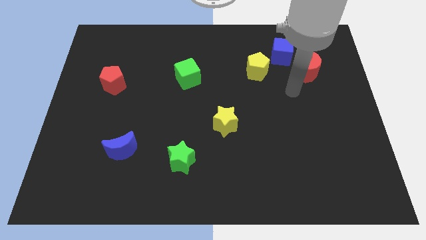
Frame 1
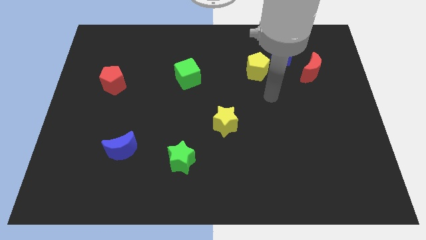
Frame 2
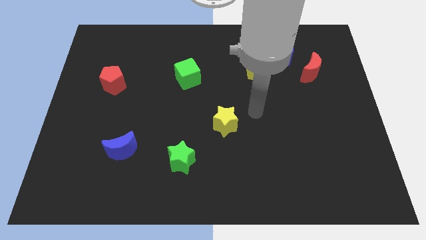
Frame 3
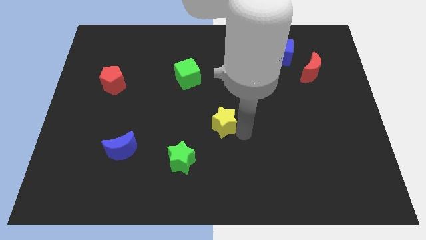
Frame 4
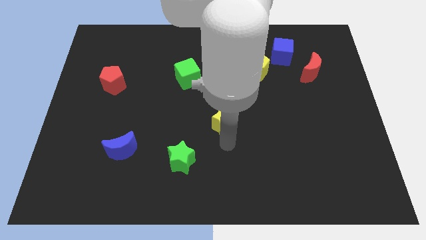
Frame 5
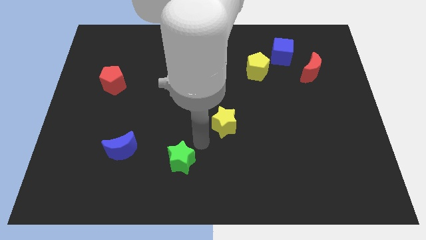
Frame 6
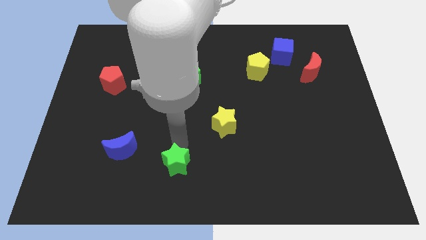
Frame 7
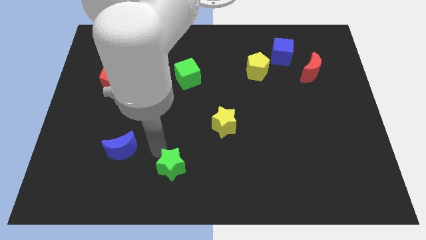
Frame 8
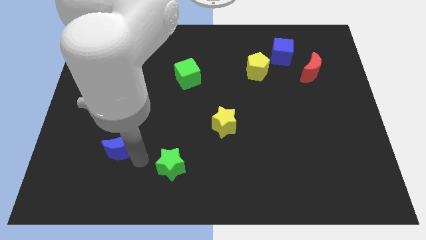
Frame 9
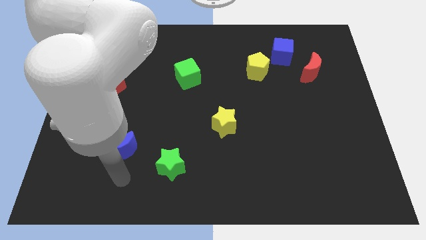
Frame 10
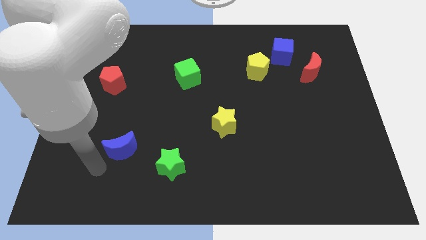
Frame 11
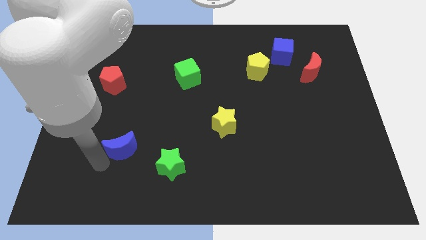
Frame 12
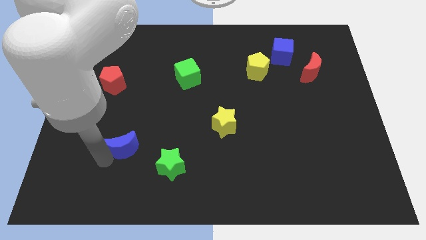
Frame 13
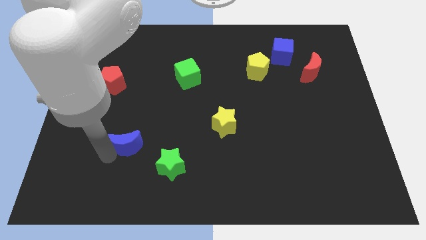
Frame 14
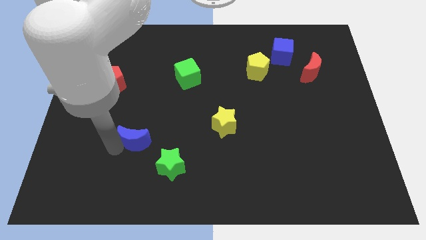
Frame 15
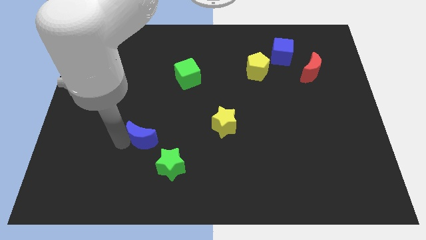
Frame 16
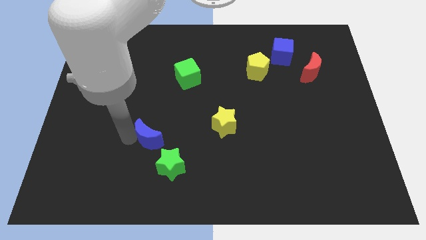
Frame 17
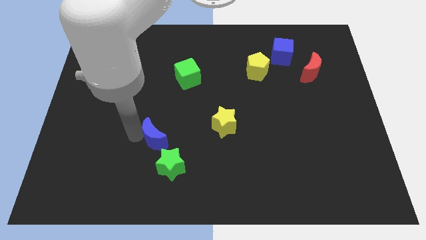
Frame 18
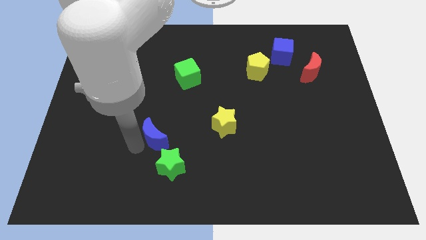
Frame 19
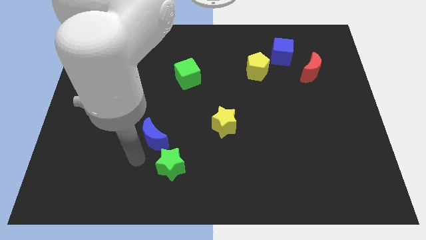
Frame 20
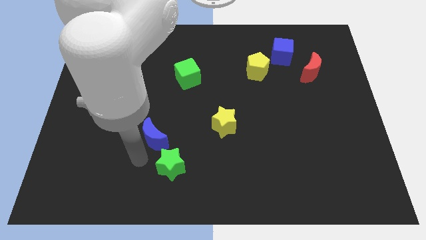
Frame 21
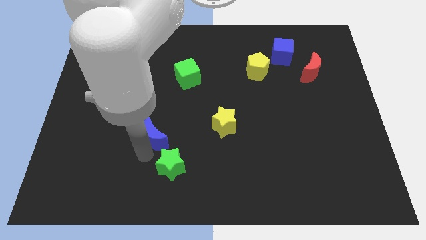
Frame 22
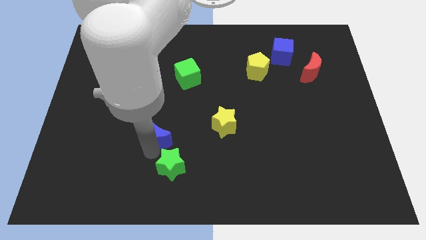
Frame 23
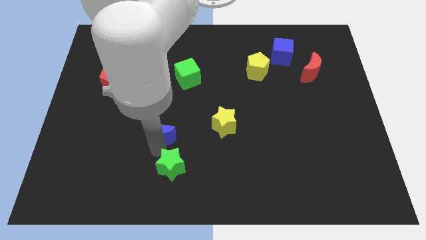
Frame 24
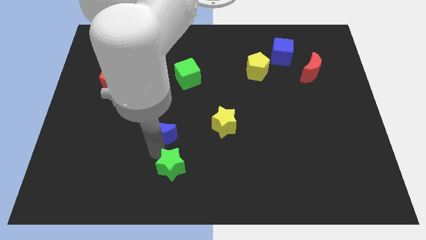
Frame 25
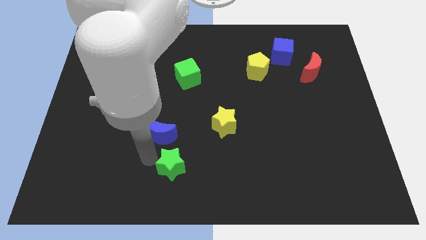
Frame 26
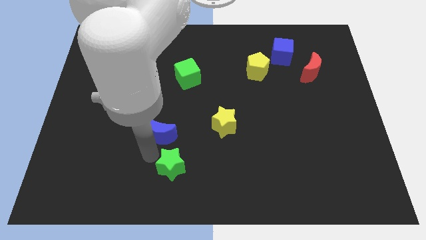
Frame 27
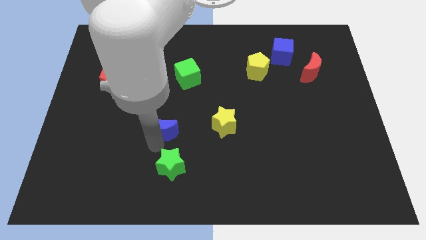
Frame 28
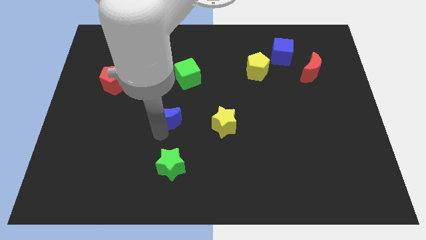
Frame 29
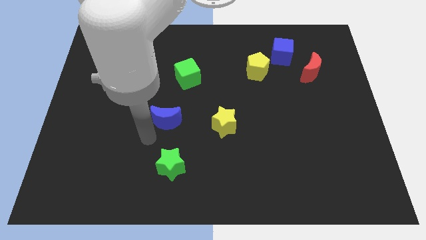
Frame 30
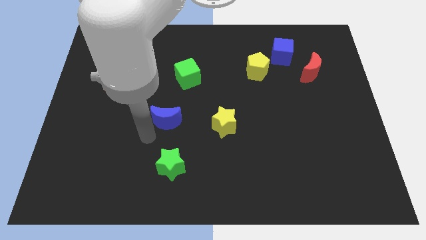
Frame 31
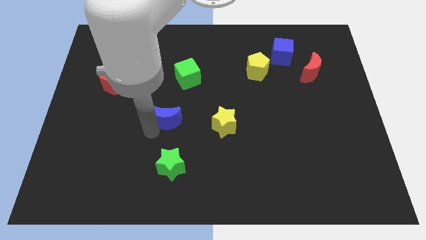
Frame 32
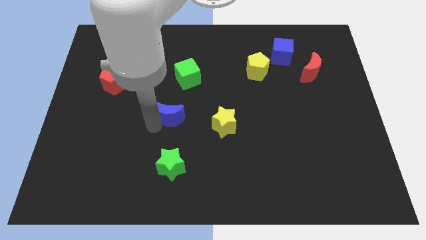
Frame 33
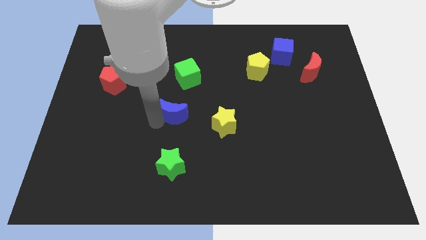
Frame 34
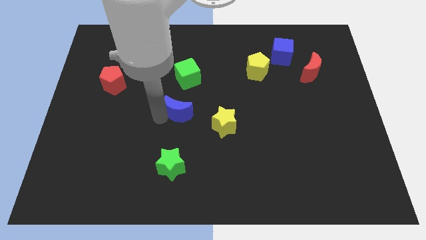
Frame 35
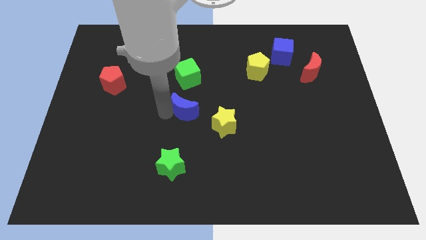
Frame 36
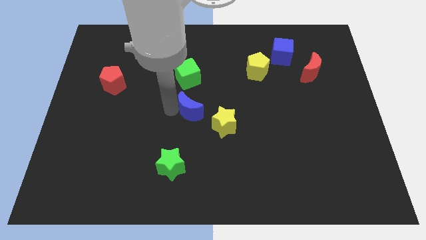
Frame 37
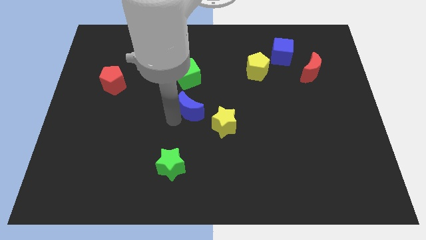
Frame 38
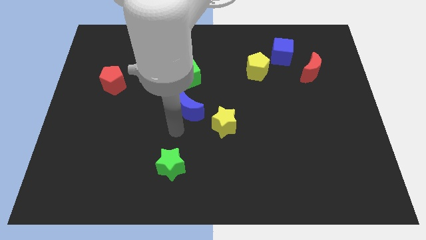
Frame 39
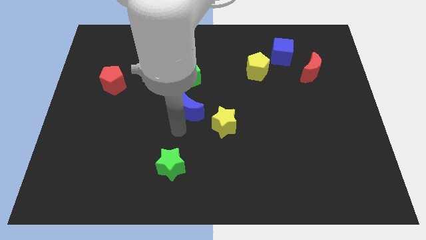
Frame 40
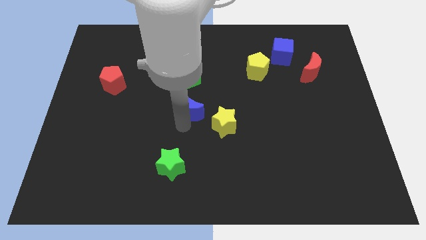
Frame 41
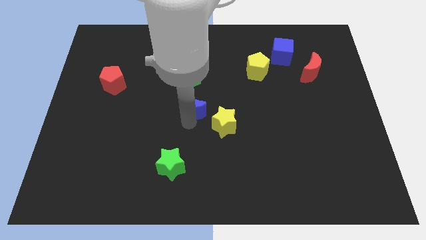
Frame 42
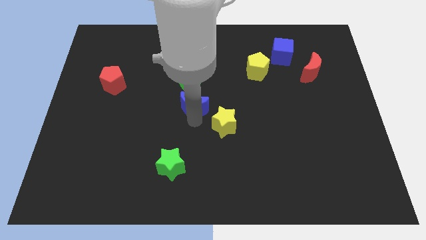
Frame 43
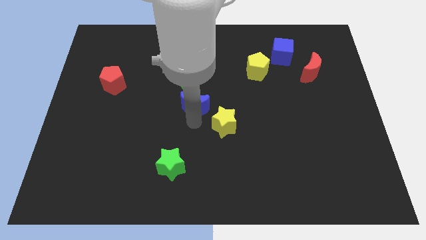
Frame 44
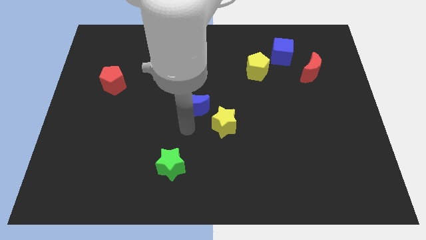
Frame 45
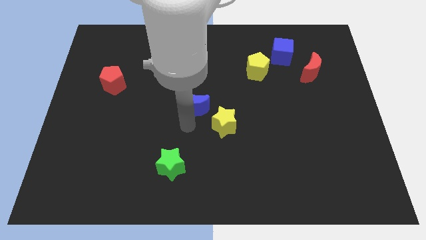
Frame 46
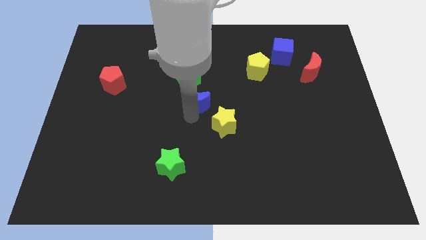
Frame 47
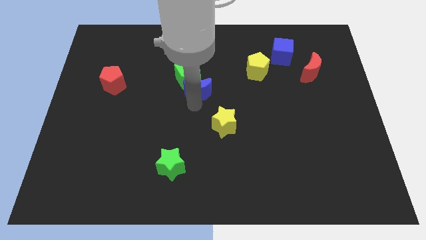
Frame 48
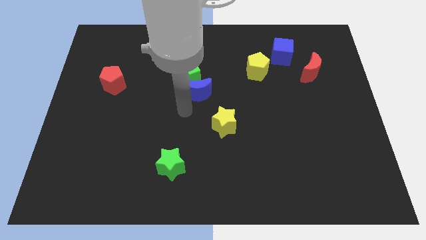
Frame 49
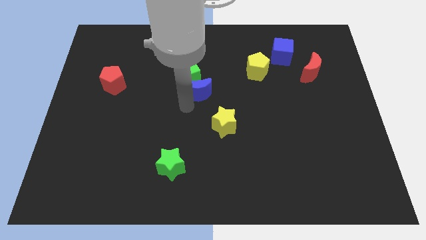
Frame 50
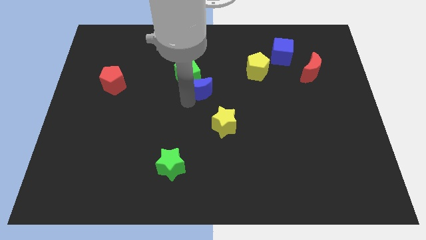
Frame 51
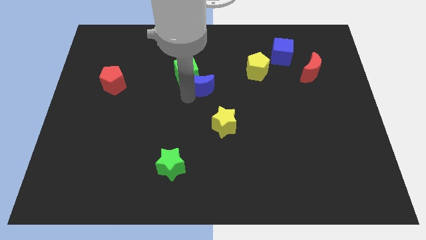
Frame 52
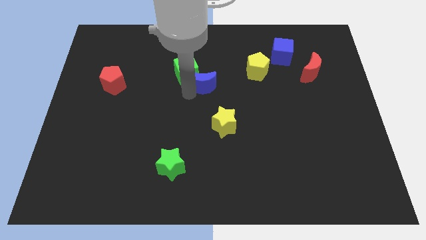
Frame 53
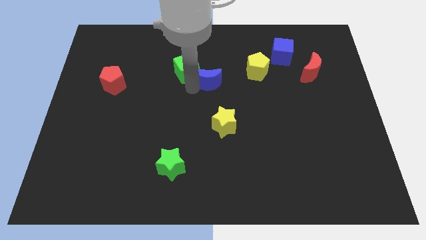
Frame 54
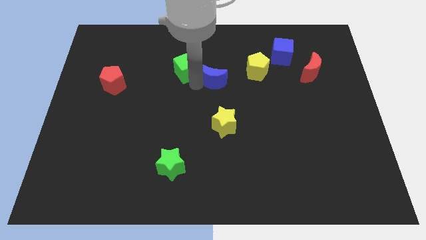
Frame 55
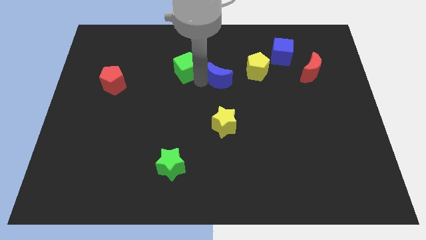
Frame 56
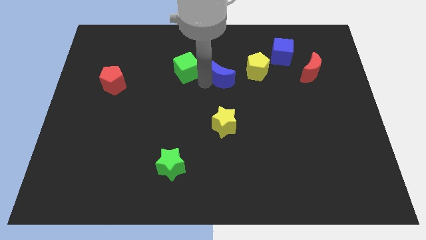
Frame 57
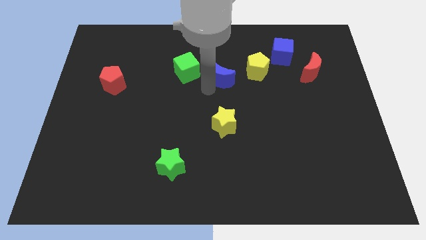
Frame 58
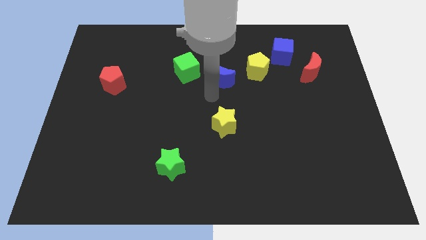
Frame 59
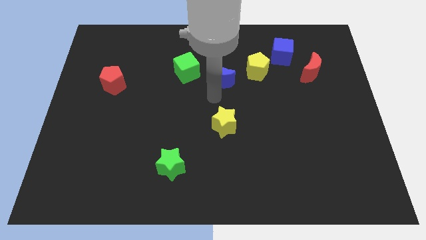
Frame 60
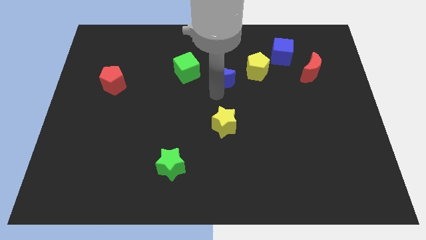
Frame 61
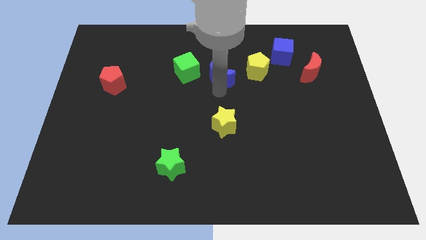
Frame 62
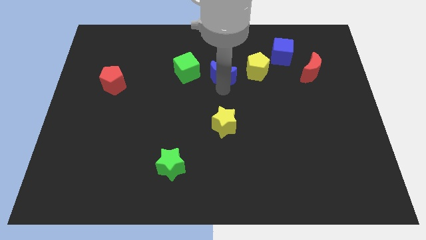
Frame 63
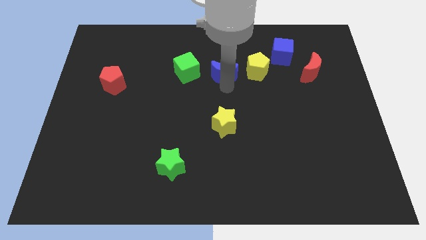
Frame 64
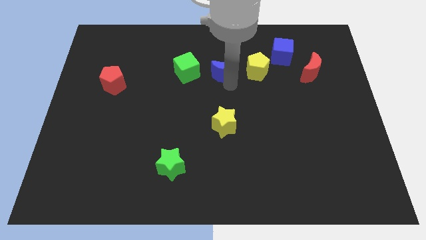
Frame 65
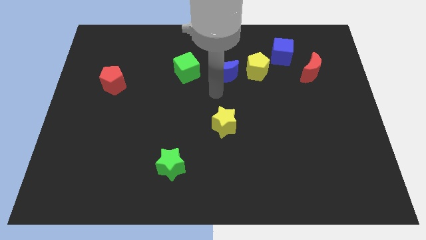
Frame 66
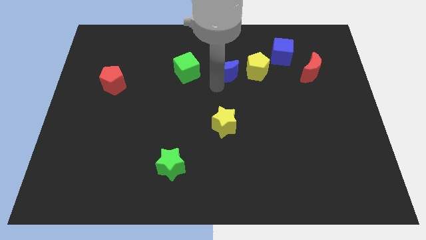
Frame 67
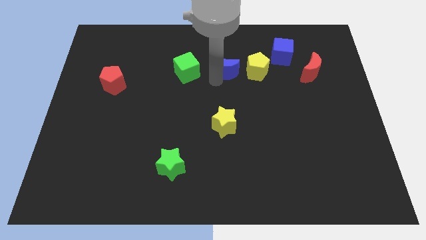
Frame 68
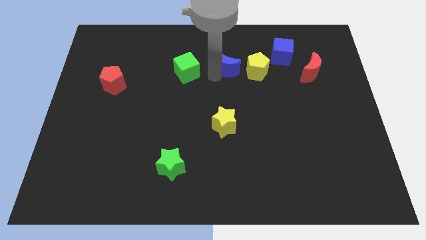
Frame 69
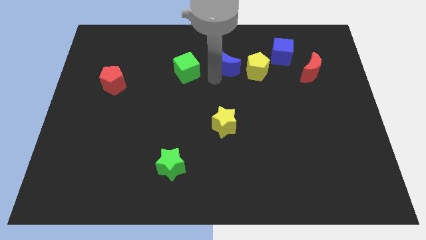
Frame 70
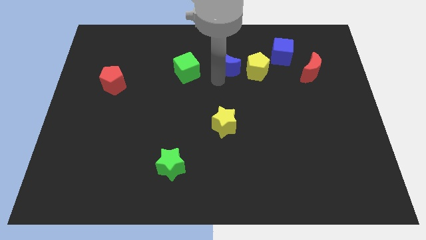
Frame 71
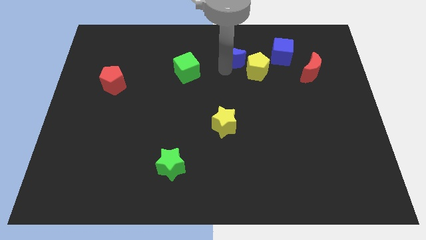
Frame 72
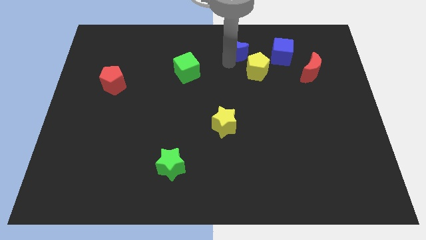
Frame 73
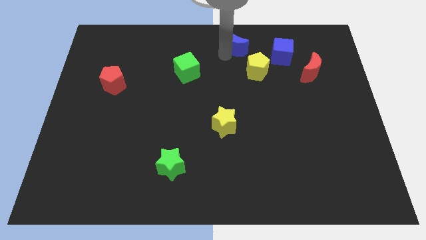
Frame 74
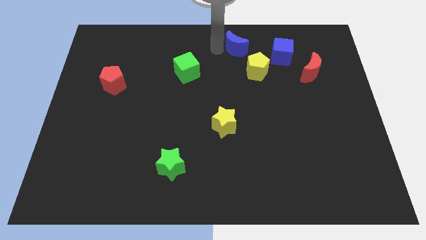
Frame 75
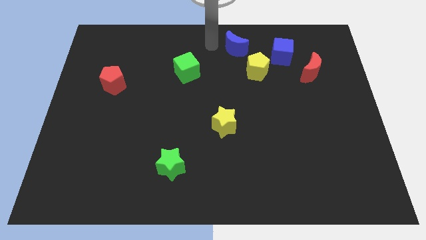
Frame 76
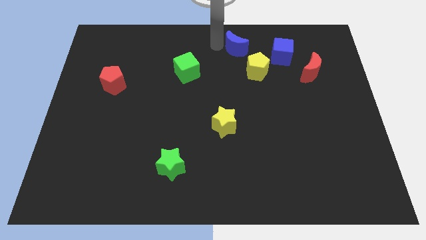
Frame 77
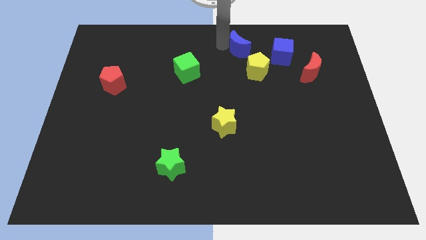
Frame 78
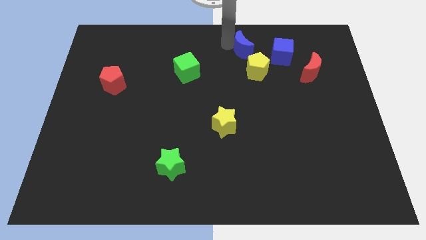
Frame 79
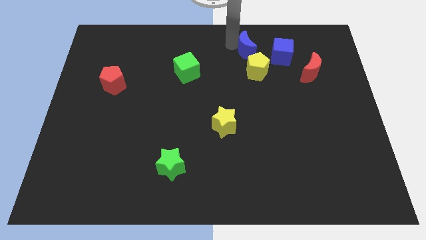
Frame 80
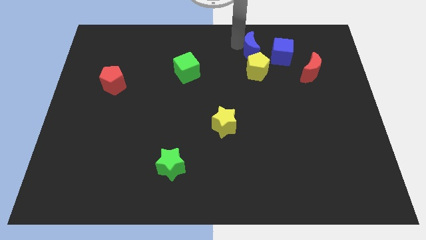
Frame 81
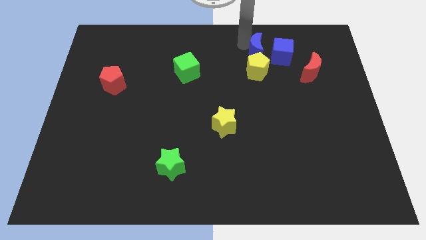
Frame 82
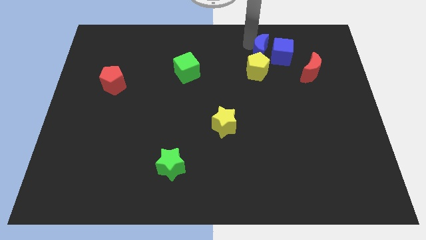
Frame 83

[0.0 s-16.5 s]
push the blue moon close to the blue cube
